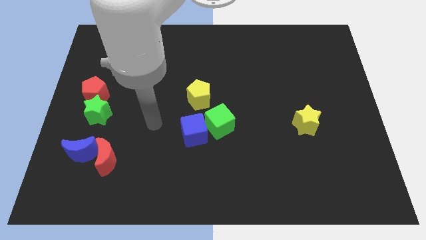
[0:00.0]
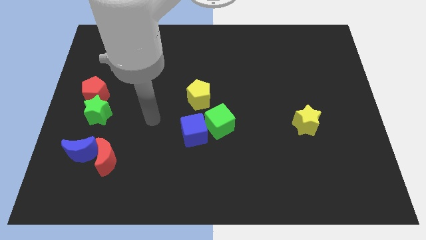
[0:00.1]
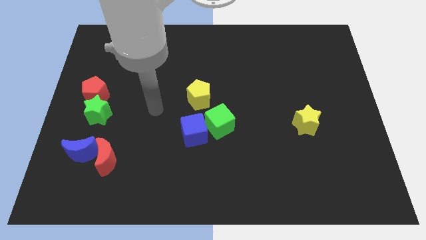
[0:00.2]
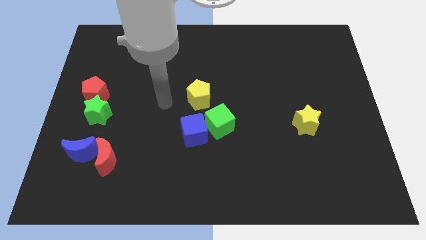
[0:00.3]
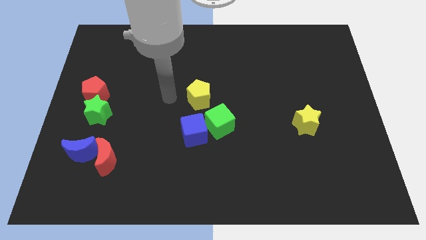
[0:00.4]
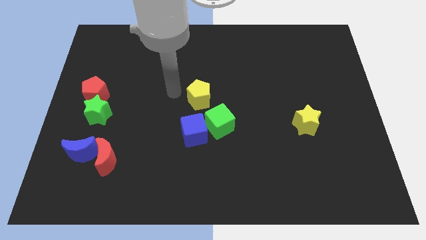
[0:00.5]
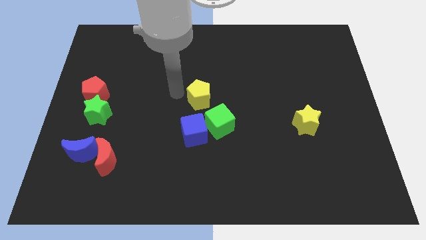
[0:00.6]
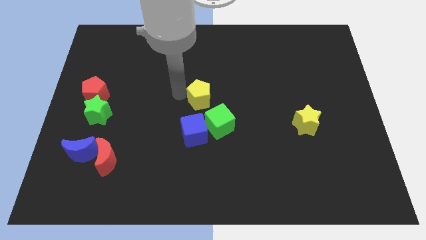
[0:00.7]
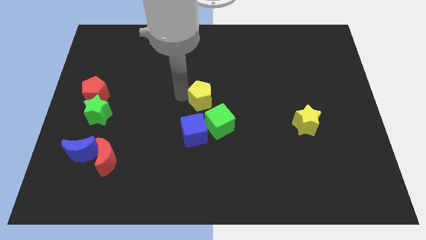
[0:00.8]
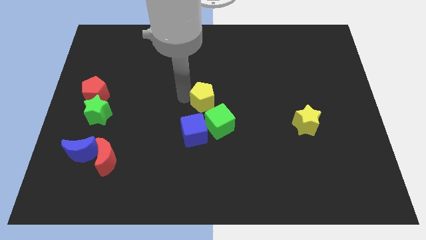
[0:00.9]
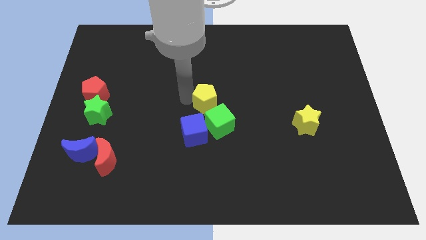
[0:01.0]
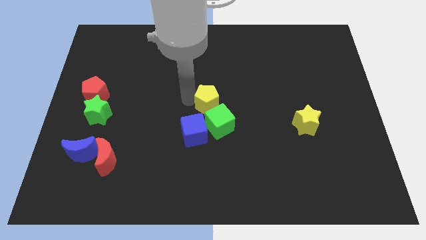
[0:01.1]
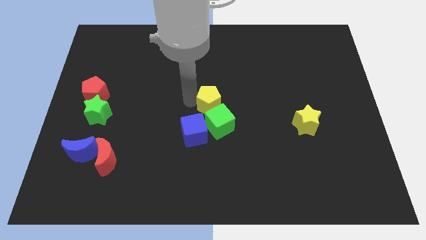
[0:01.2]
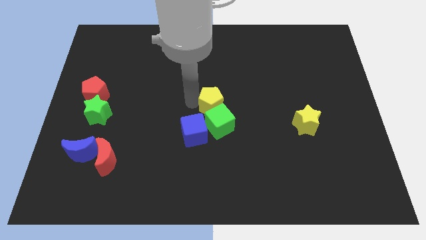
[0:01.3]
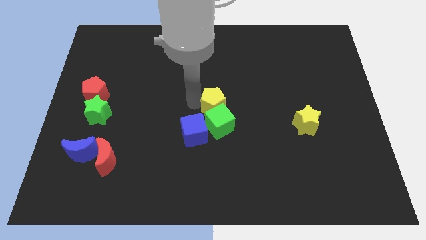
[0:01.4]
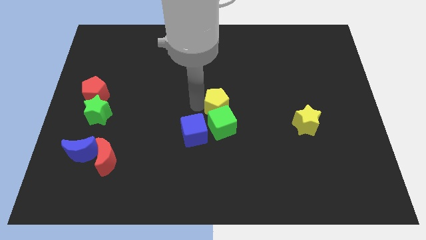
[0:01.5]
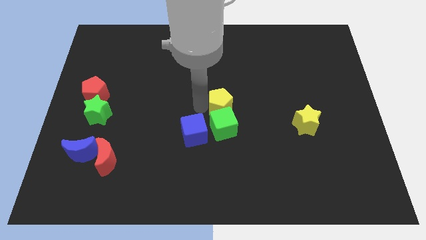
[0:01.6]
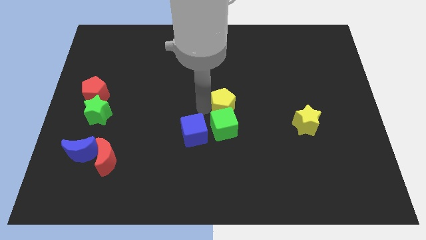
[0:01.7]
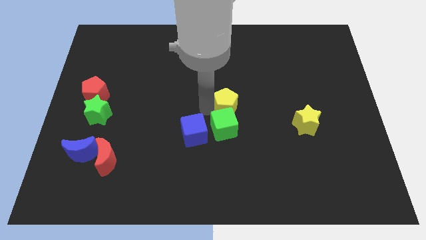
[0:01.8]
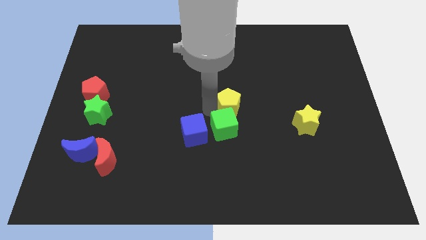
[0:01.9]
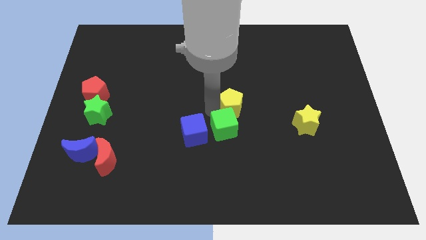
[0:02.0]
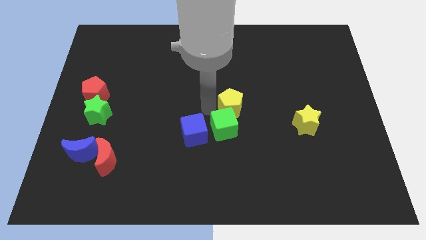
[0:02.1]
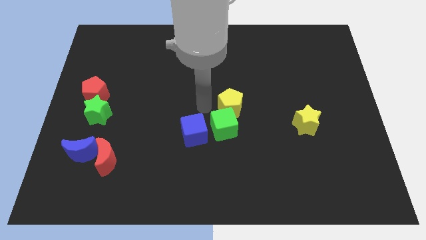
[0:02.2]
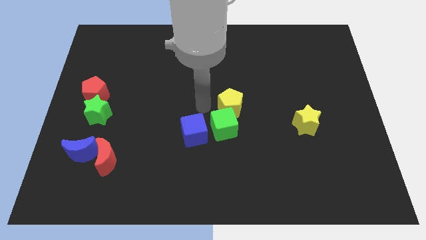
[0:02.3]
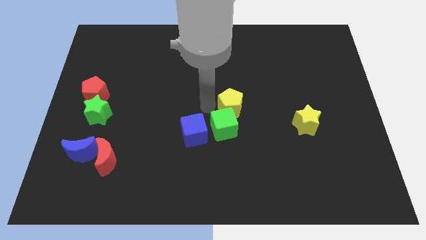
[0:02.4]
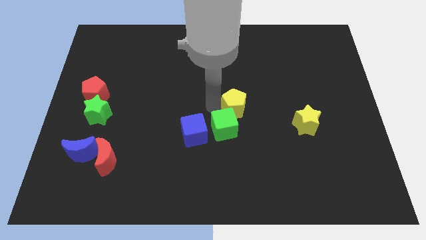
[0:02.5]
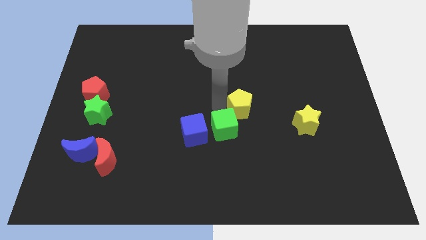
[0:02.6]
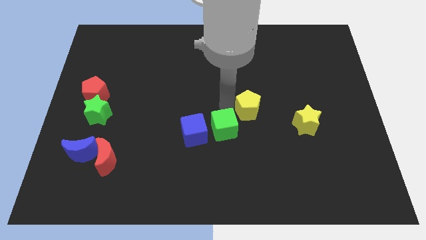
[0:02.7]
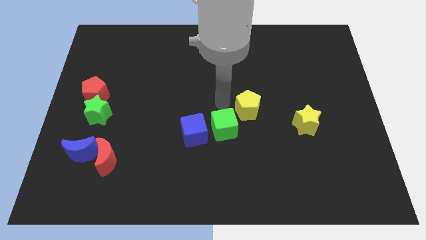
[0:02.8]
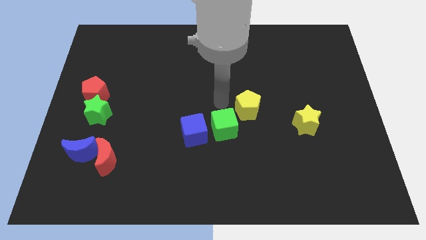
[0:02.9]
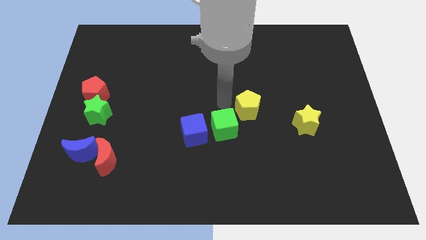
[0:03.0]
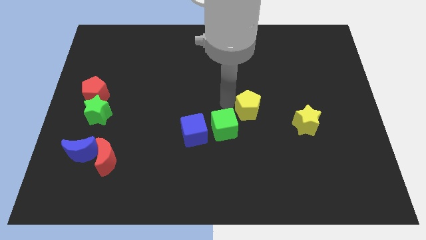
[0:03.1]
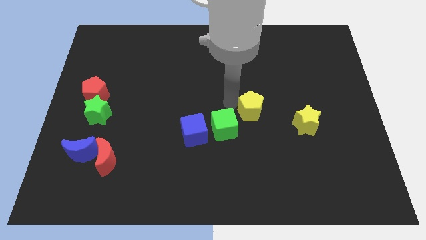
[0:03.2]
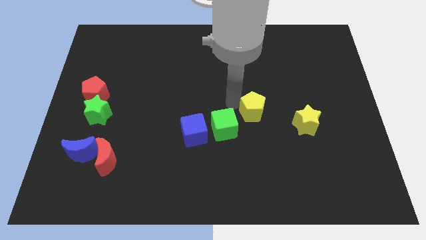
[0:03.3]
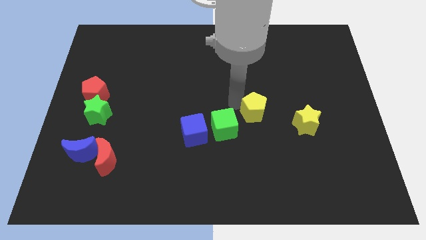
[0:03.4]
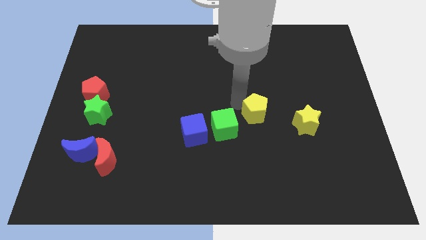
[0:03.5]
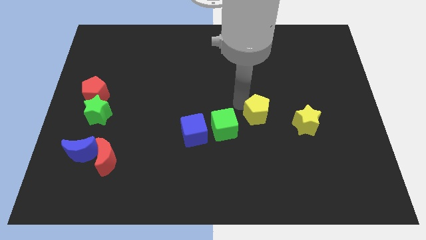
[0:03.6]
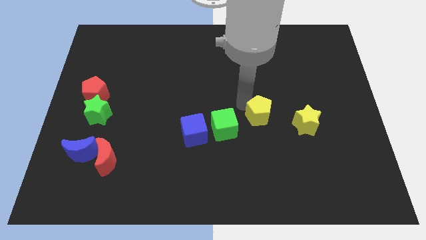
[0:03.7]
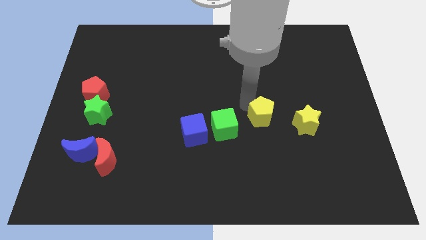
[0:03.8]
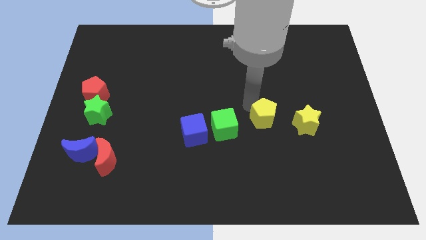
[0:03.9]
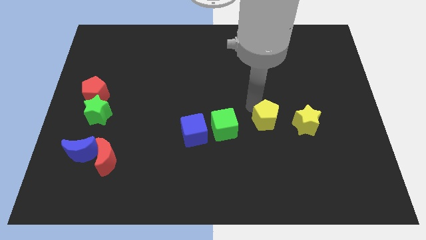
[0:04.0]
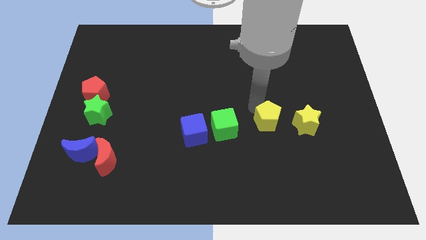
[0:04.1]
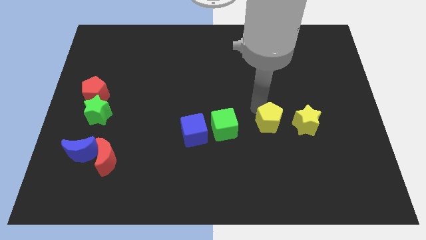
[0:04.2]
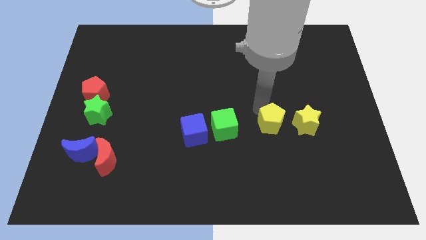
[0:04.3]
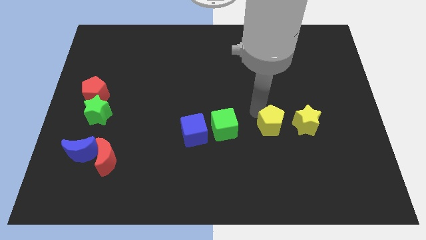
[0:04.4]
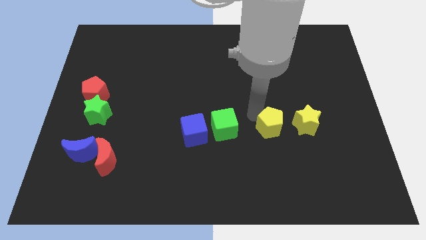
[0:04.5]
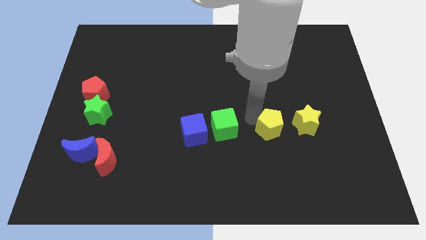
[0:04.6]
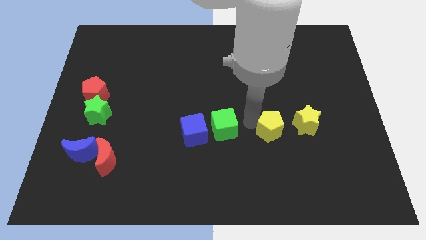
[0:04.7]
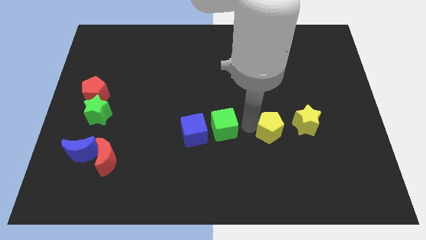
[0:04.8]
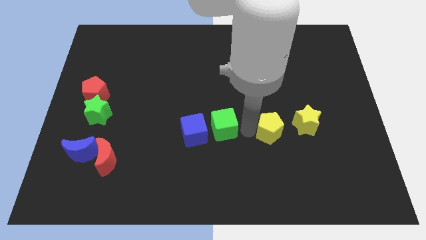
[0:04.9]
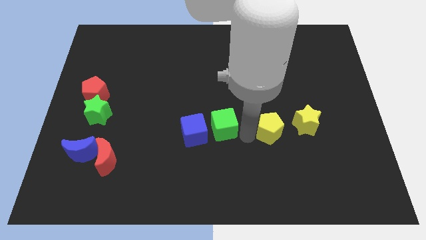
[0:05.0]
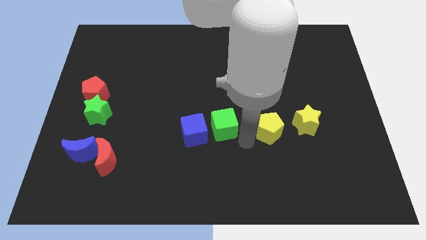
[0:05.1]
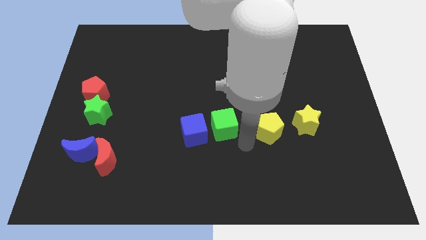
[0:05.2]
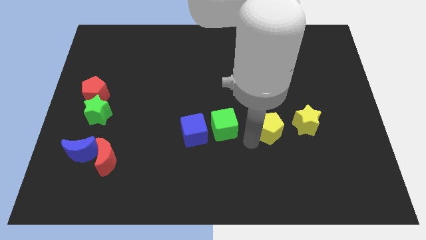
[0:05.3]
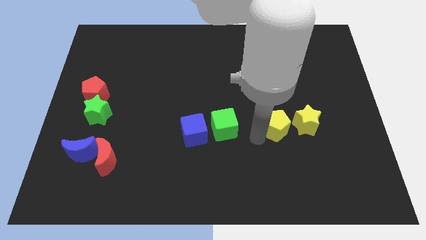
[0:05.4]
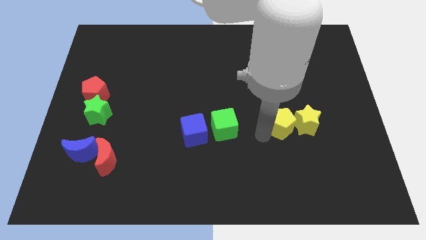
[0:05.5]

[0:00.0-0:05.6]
slide the yellow pentagon close to the yellow star

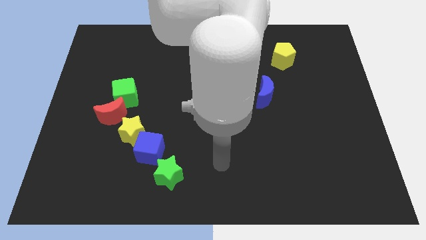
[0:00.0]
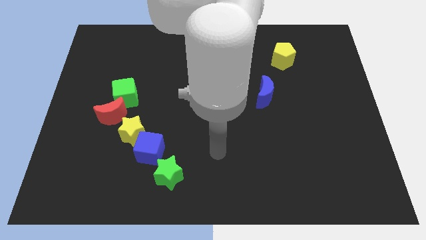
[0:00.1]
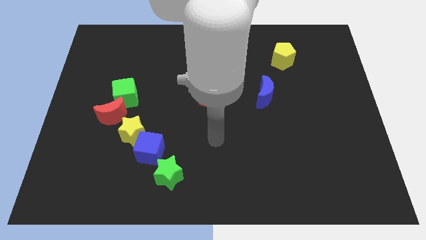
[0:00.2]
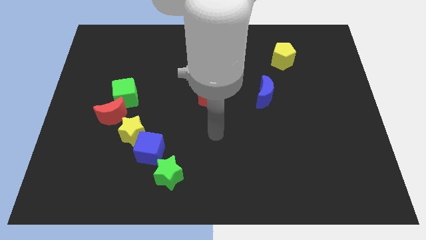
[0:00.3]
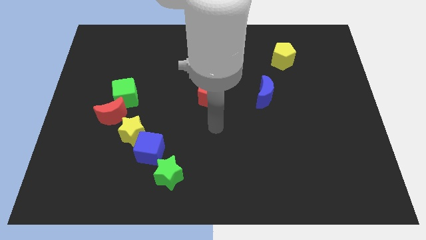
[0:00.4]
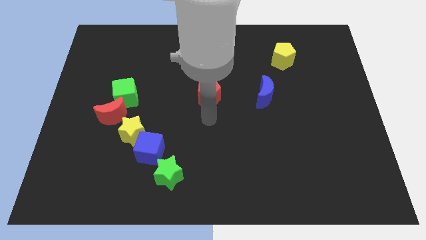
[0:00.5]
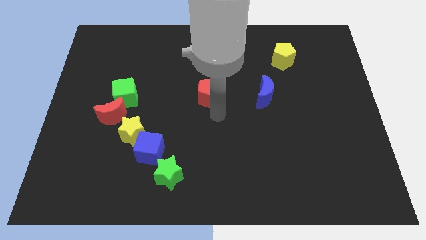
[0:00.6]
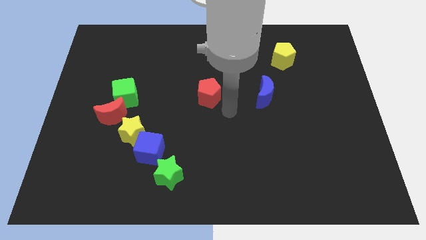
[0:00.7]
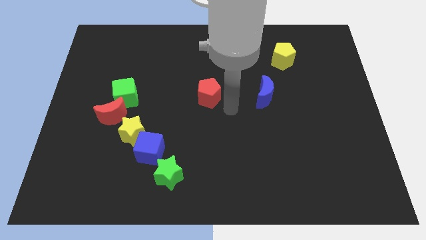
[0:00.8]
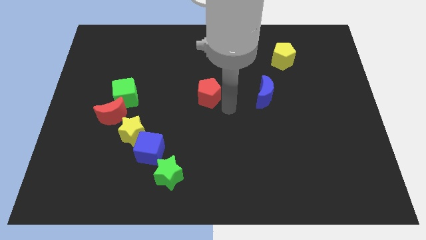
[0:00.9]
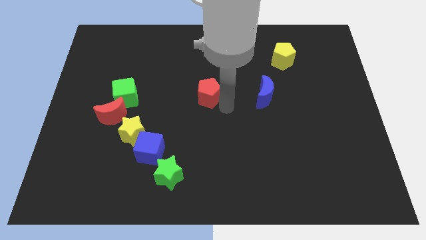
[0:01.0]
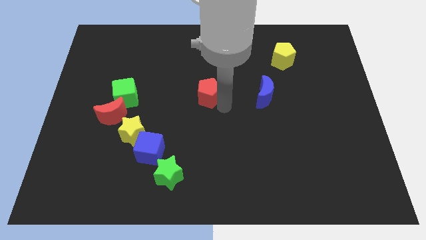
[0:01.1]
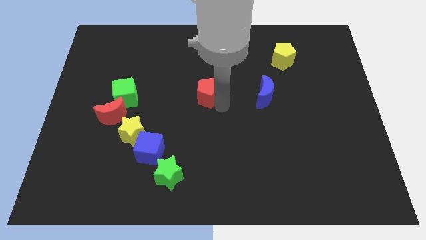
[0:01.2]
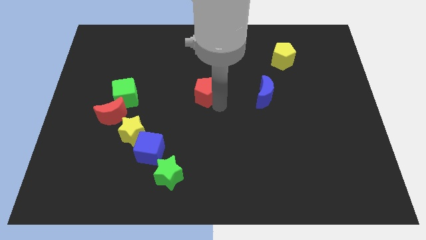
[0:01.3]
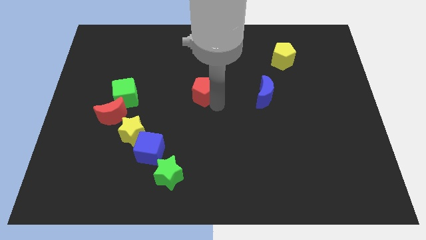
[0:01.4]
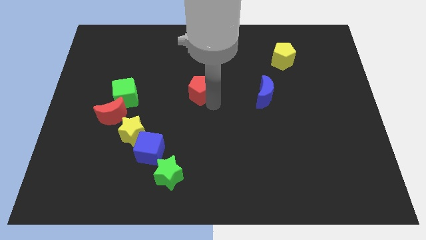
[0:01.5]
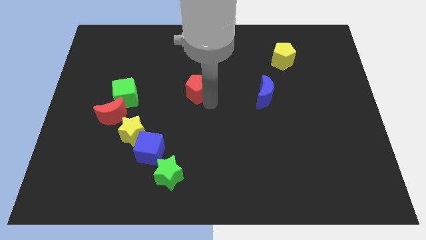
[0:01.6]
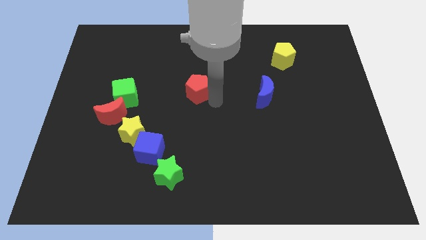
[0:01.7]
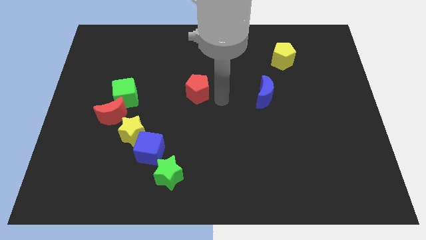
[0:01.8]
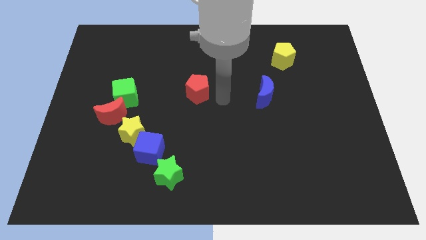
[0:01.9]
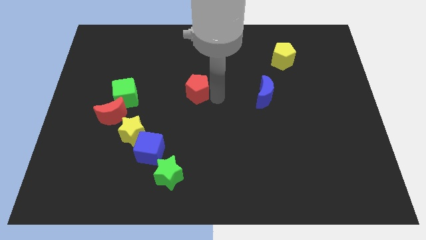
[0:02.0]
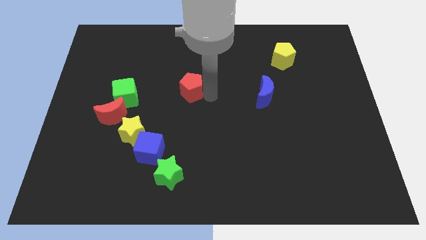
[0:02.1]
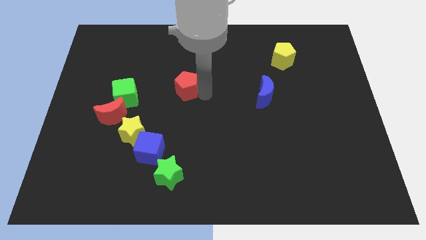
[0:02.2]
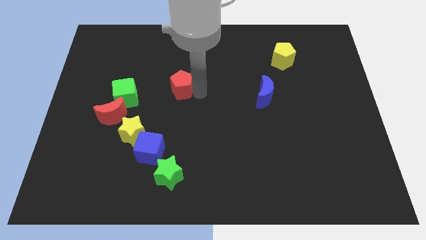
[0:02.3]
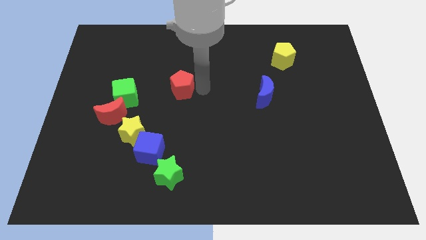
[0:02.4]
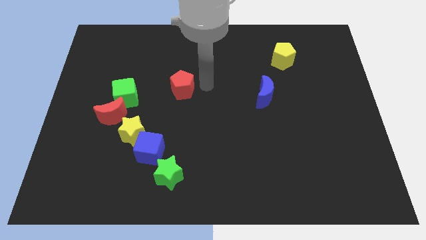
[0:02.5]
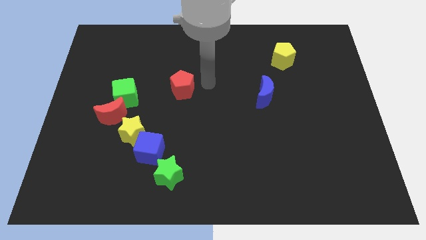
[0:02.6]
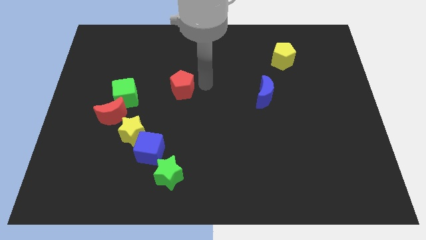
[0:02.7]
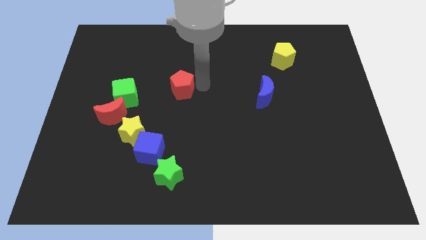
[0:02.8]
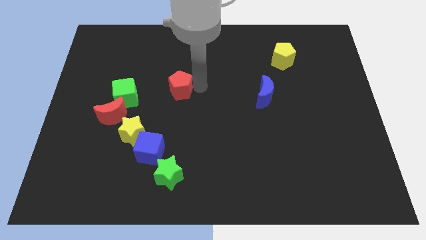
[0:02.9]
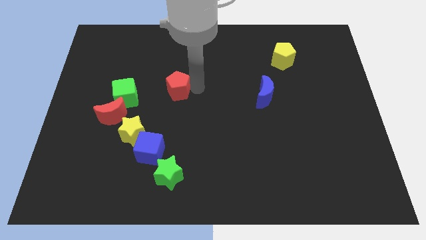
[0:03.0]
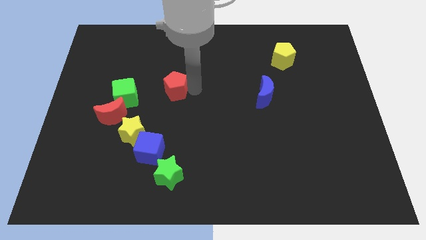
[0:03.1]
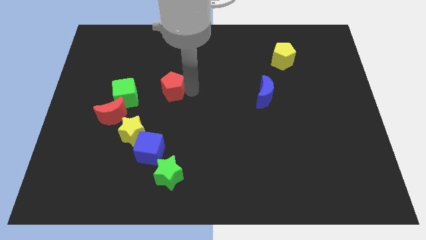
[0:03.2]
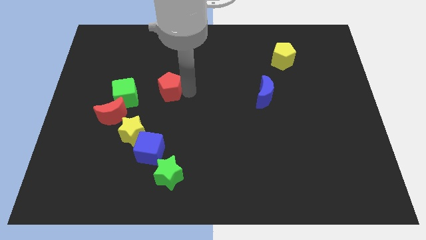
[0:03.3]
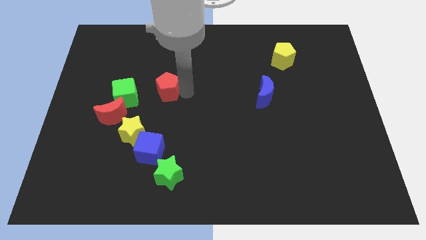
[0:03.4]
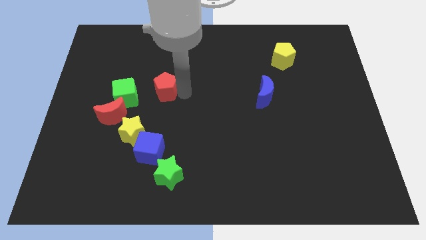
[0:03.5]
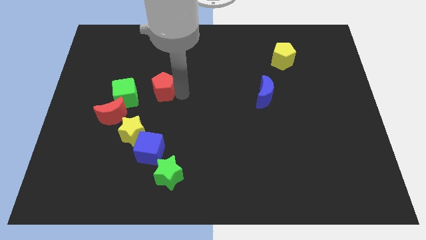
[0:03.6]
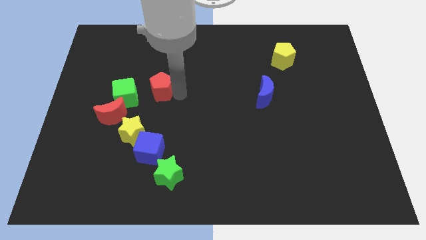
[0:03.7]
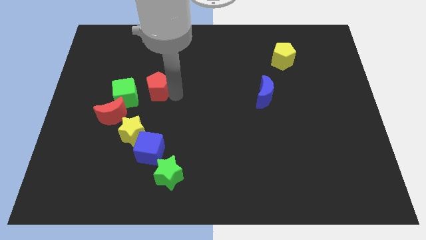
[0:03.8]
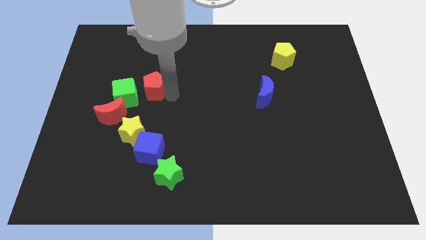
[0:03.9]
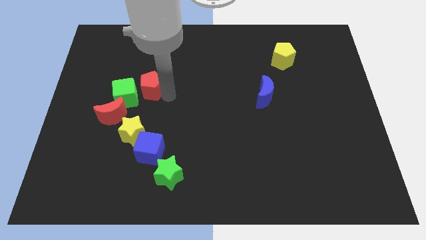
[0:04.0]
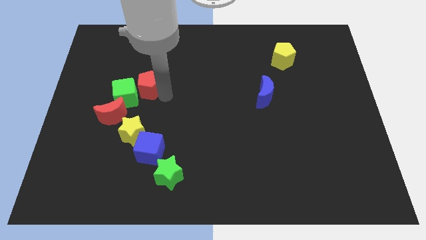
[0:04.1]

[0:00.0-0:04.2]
put the red pentagon towards the green cube
